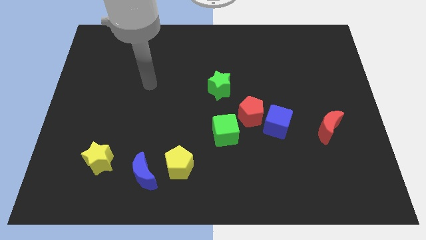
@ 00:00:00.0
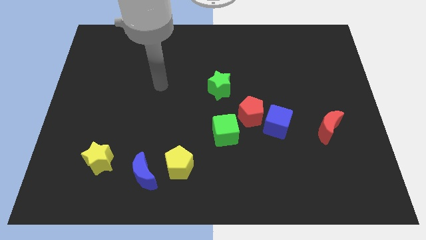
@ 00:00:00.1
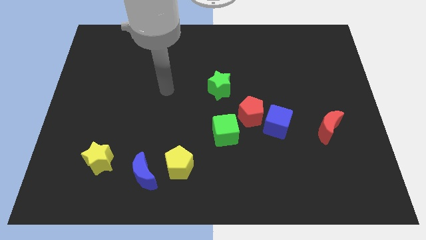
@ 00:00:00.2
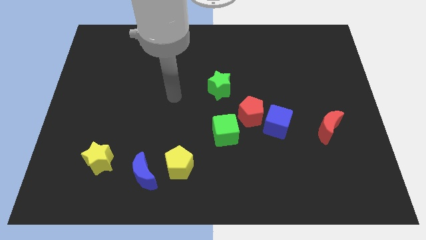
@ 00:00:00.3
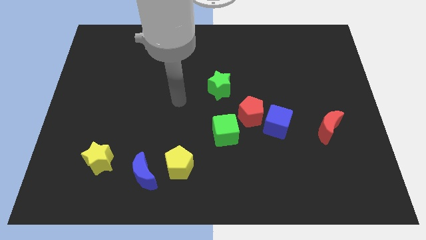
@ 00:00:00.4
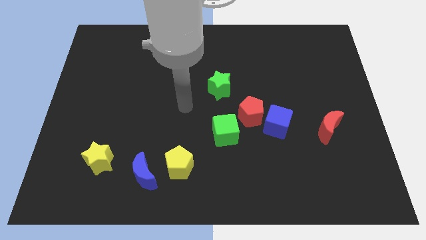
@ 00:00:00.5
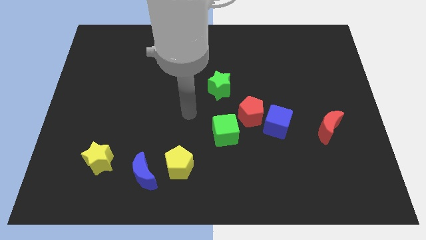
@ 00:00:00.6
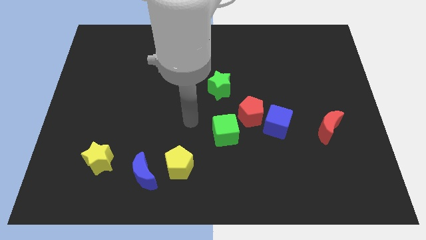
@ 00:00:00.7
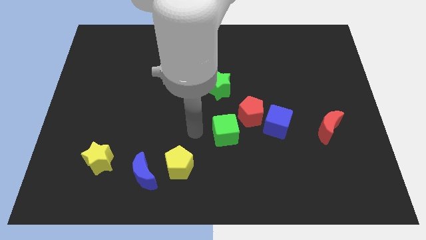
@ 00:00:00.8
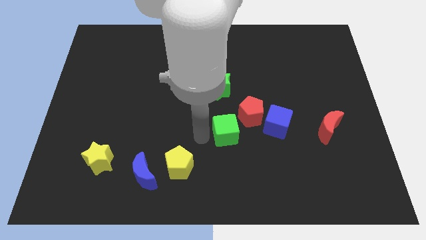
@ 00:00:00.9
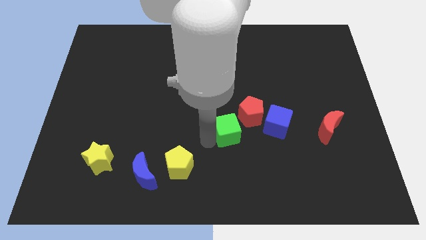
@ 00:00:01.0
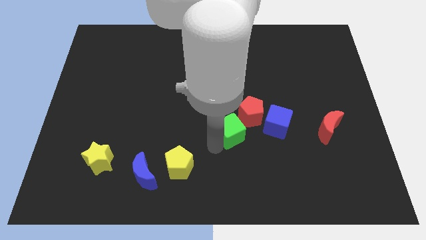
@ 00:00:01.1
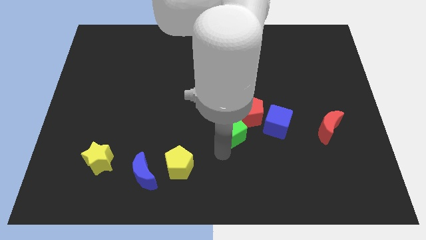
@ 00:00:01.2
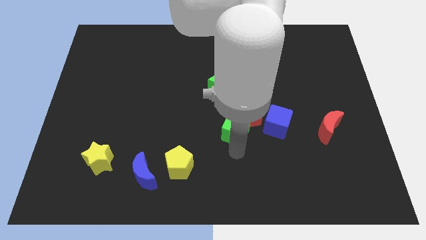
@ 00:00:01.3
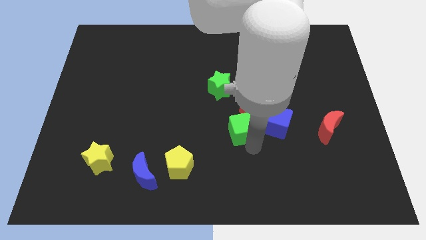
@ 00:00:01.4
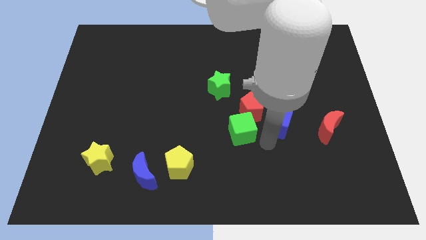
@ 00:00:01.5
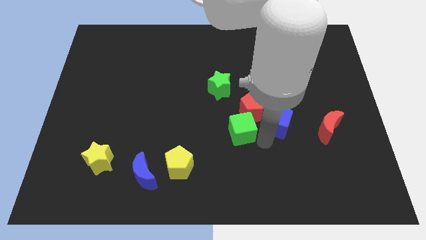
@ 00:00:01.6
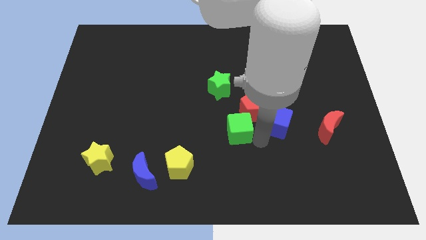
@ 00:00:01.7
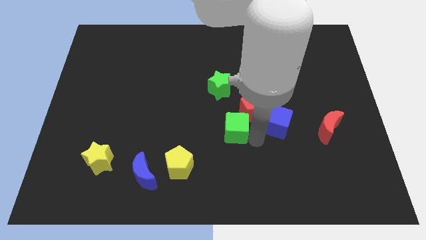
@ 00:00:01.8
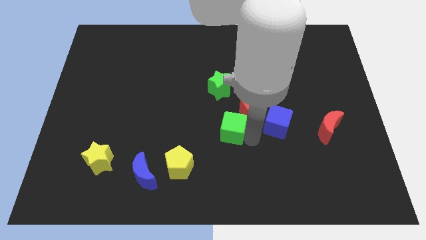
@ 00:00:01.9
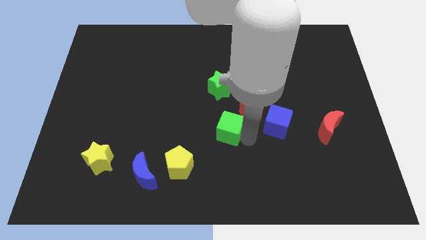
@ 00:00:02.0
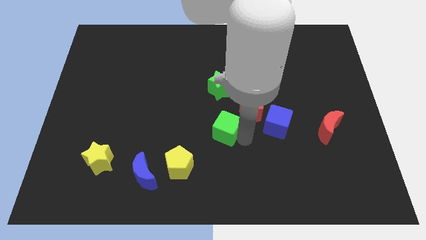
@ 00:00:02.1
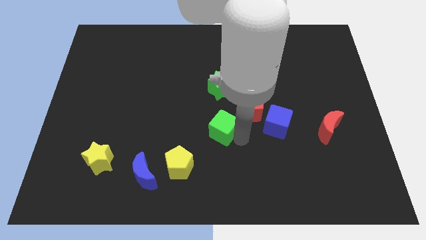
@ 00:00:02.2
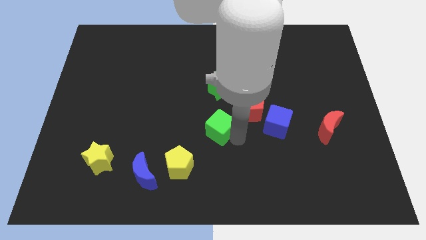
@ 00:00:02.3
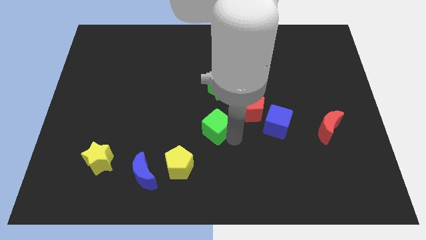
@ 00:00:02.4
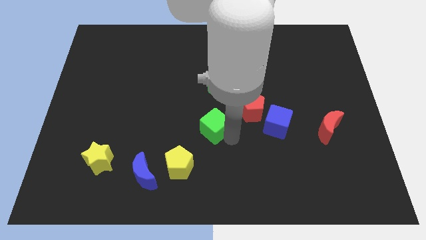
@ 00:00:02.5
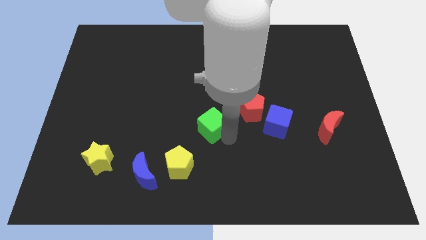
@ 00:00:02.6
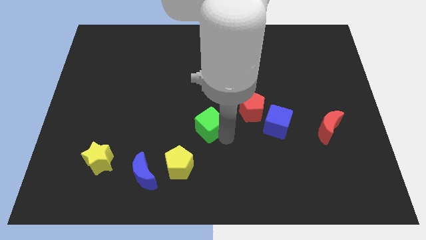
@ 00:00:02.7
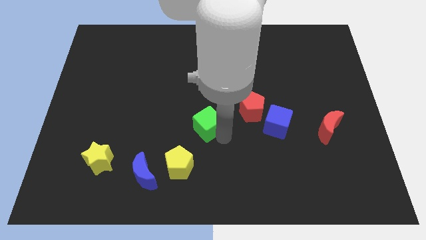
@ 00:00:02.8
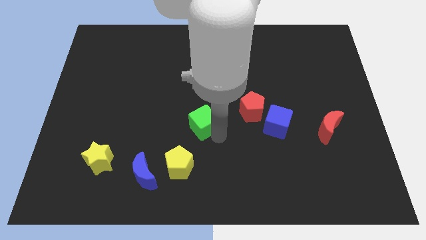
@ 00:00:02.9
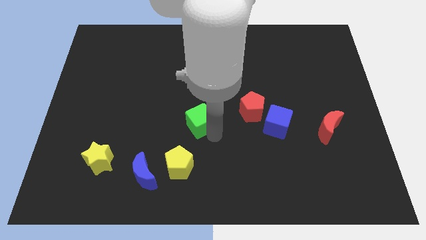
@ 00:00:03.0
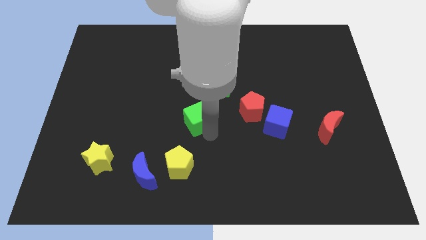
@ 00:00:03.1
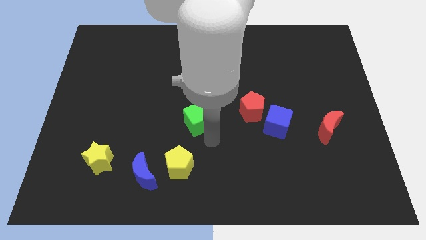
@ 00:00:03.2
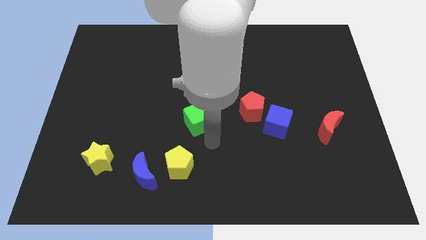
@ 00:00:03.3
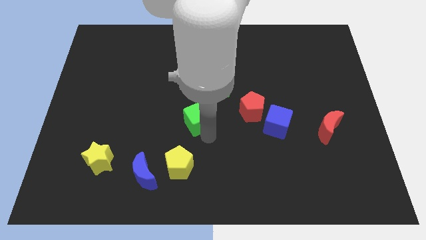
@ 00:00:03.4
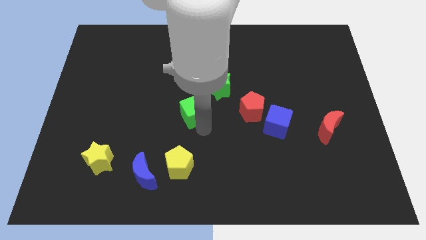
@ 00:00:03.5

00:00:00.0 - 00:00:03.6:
move the green cube a little up and then left

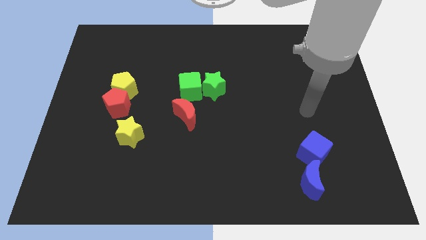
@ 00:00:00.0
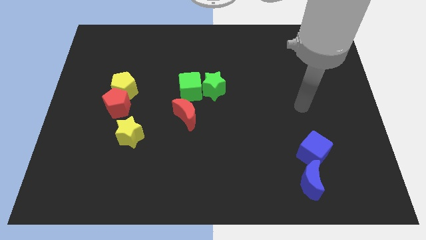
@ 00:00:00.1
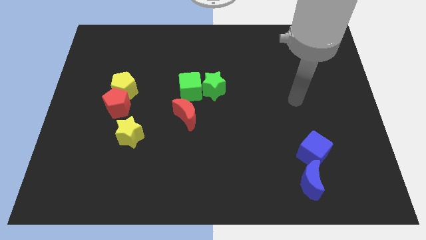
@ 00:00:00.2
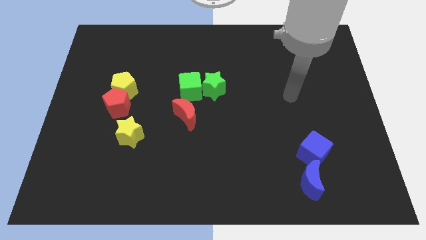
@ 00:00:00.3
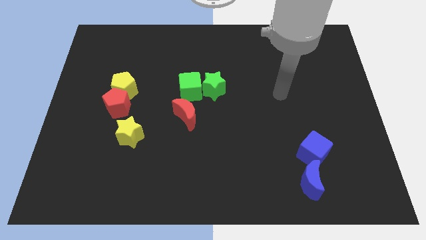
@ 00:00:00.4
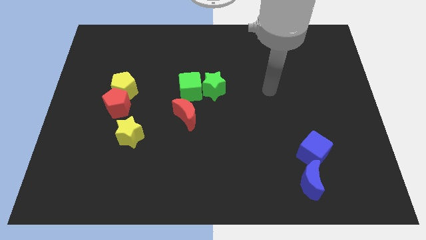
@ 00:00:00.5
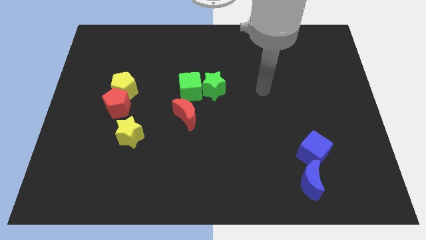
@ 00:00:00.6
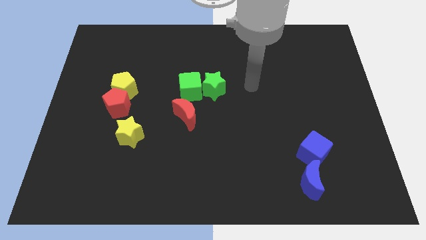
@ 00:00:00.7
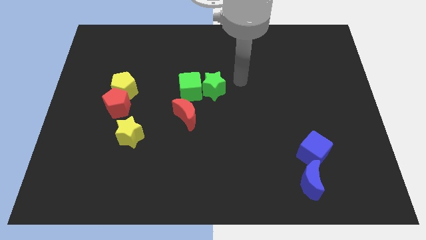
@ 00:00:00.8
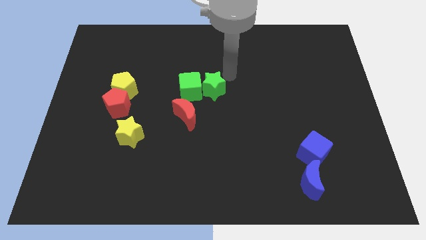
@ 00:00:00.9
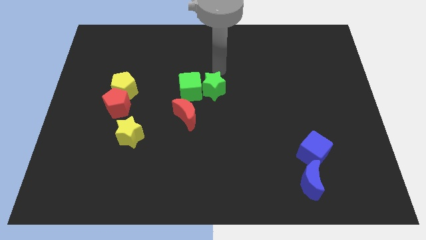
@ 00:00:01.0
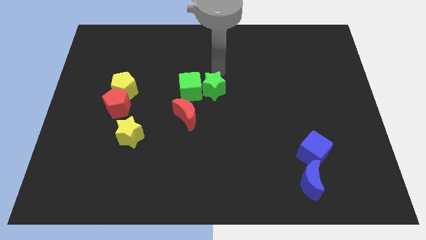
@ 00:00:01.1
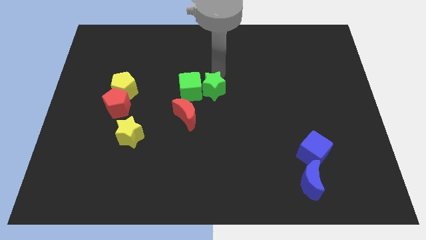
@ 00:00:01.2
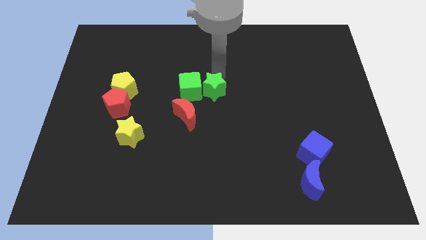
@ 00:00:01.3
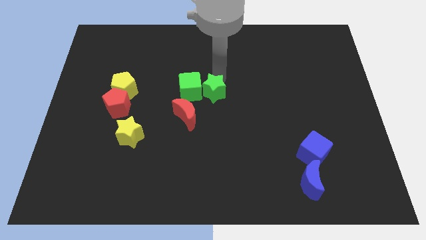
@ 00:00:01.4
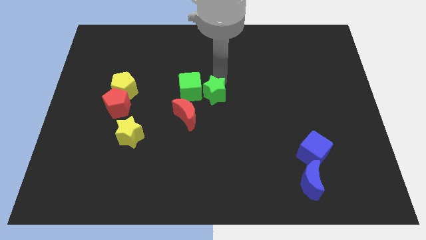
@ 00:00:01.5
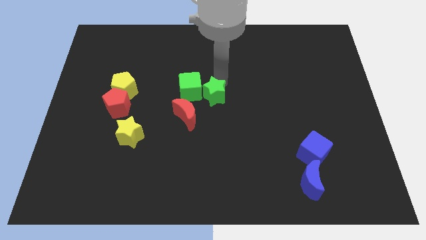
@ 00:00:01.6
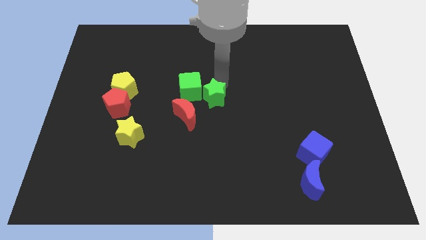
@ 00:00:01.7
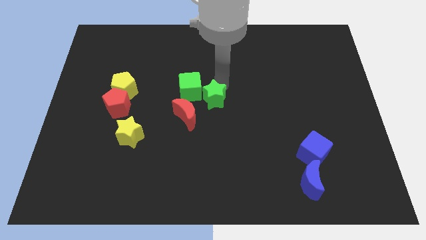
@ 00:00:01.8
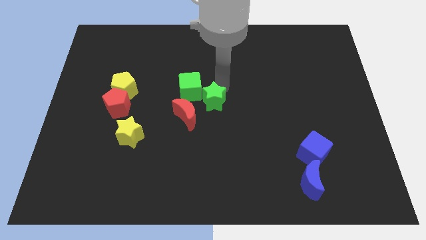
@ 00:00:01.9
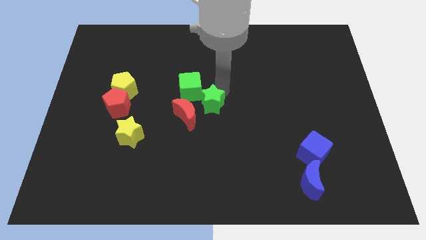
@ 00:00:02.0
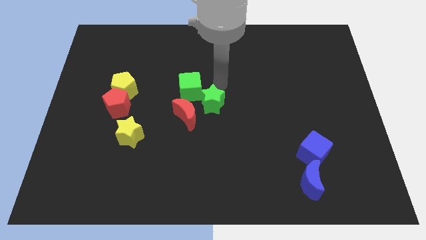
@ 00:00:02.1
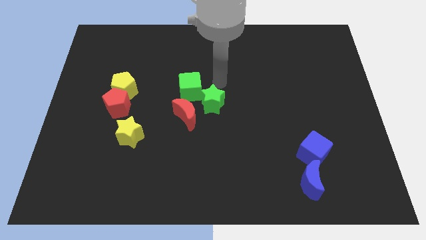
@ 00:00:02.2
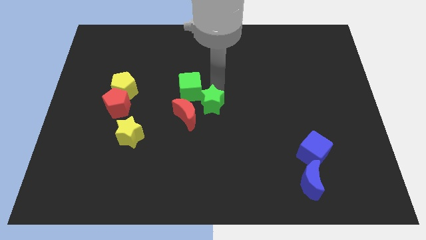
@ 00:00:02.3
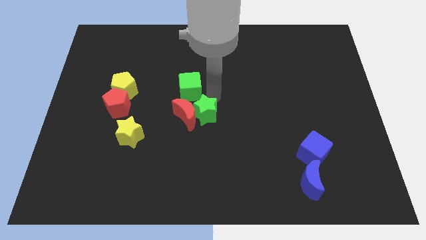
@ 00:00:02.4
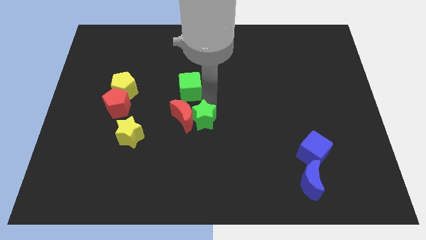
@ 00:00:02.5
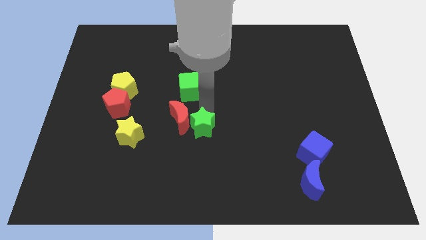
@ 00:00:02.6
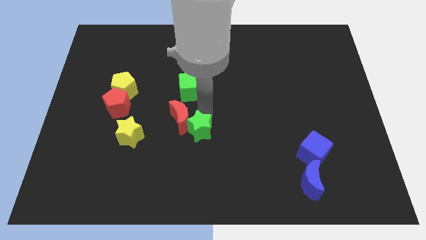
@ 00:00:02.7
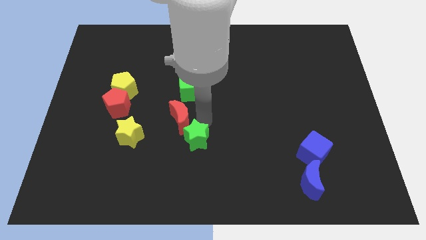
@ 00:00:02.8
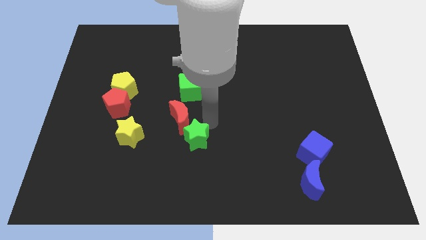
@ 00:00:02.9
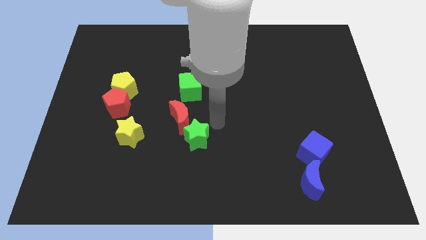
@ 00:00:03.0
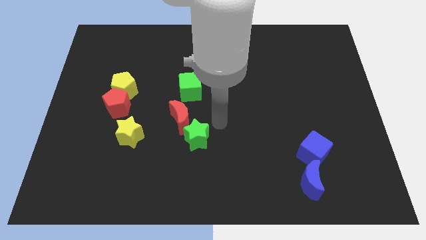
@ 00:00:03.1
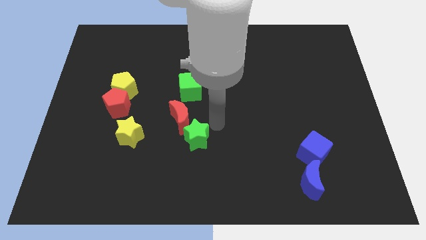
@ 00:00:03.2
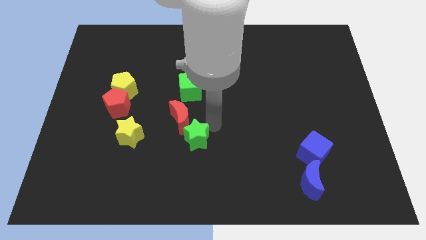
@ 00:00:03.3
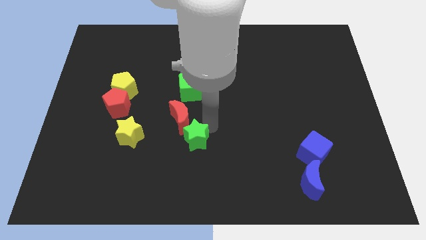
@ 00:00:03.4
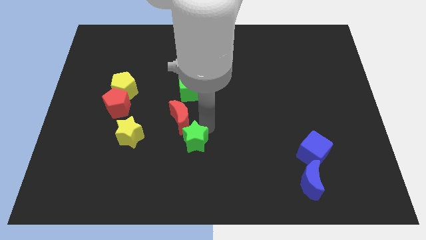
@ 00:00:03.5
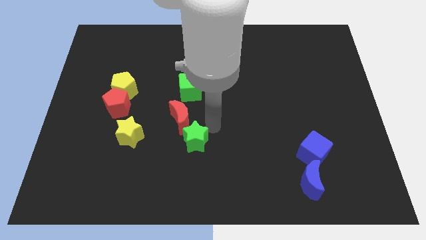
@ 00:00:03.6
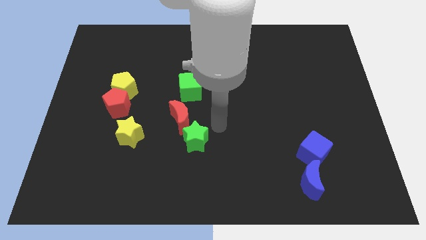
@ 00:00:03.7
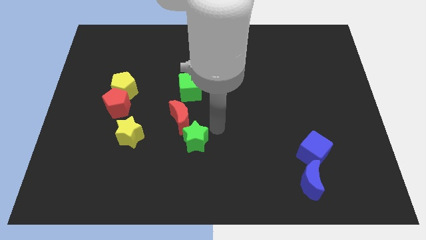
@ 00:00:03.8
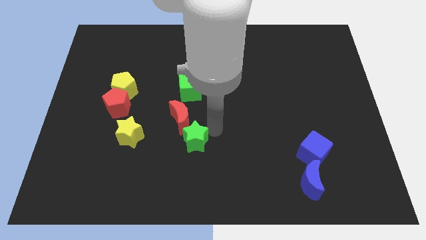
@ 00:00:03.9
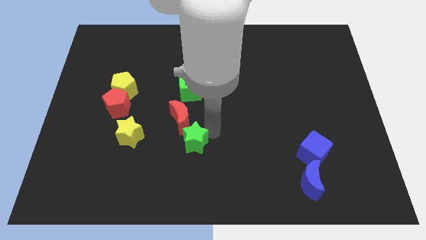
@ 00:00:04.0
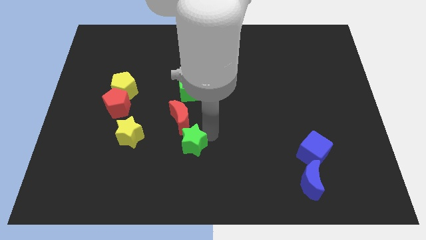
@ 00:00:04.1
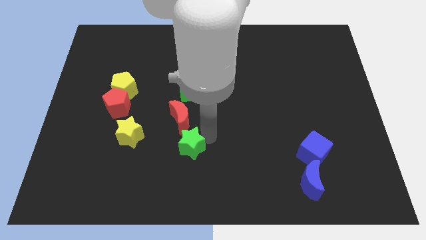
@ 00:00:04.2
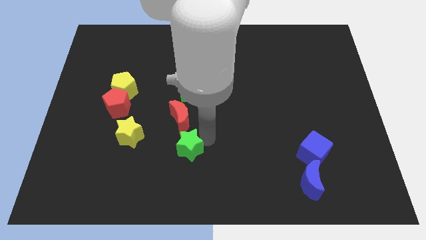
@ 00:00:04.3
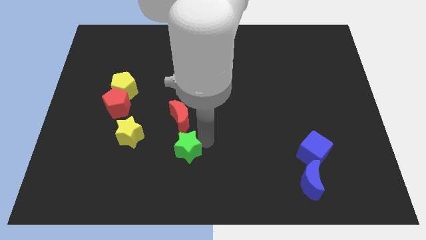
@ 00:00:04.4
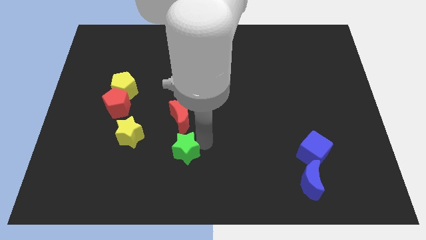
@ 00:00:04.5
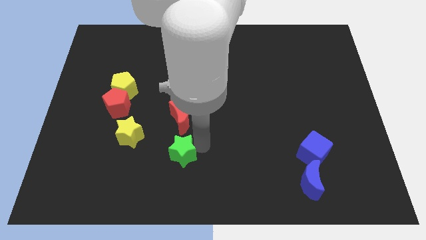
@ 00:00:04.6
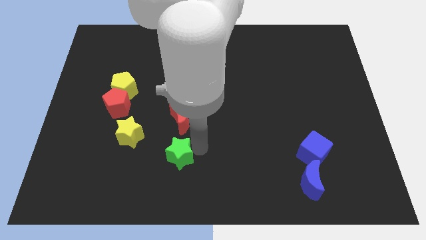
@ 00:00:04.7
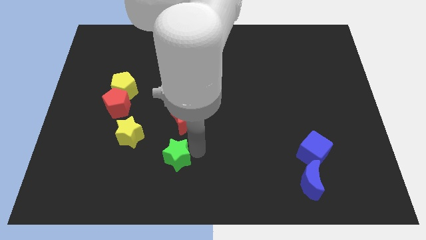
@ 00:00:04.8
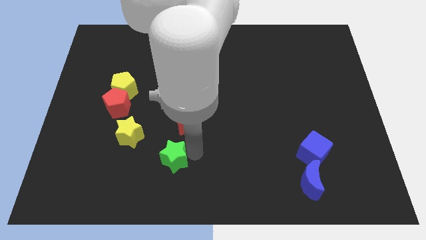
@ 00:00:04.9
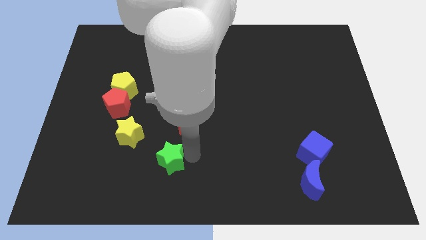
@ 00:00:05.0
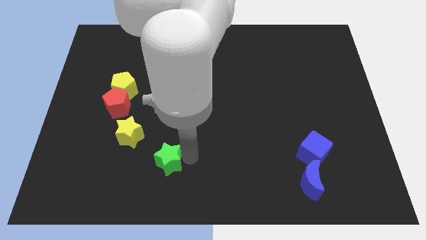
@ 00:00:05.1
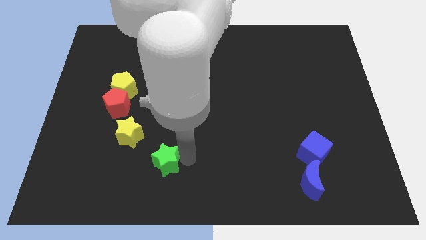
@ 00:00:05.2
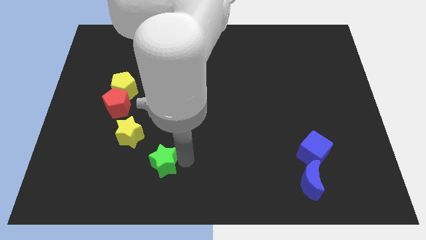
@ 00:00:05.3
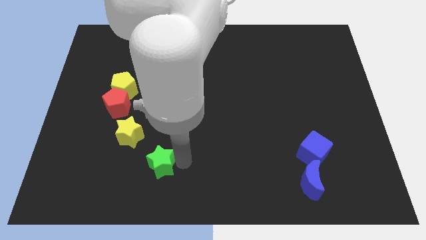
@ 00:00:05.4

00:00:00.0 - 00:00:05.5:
slide the green star down and left
